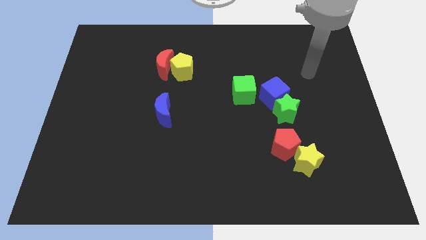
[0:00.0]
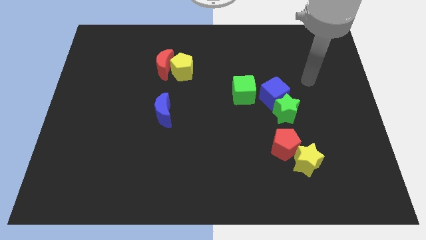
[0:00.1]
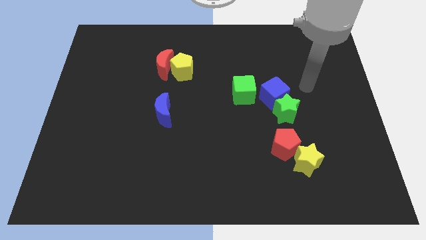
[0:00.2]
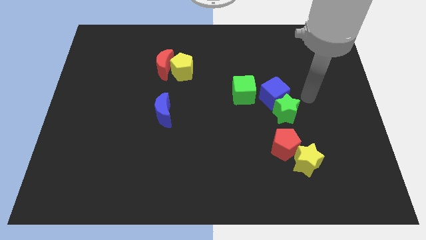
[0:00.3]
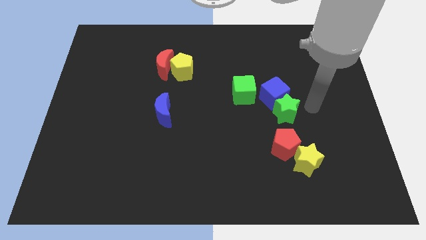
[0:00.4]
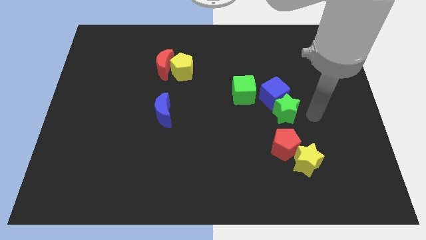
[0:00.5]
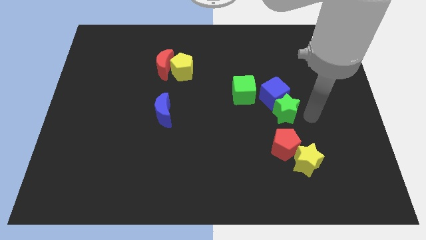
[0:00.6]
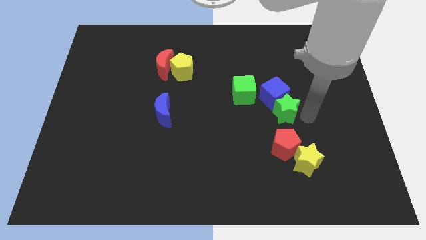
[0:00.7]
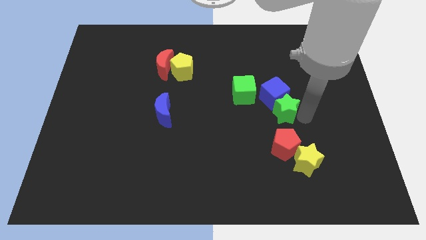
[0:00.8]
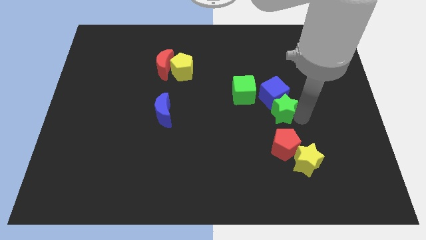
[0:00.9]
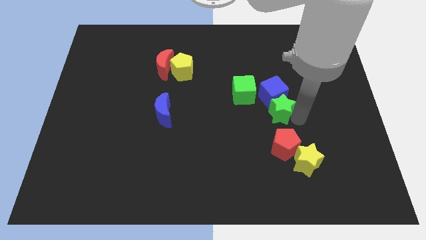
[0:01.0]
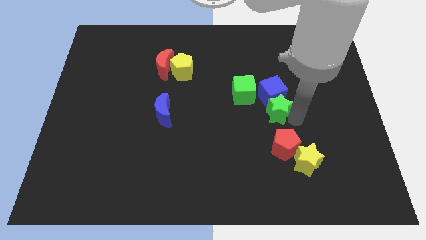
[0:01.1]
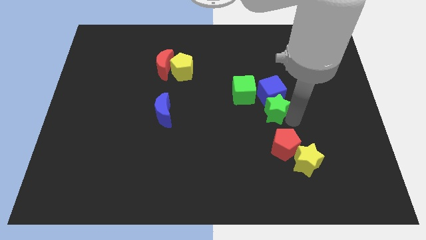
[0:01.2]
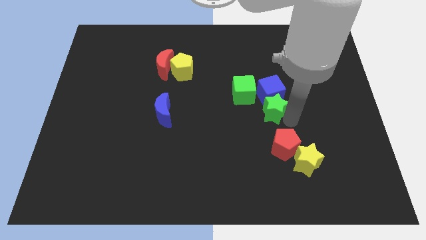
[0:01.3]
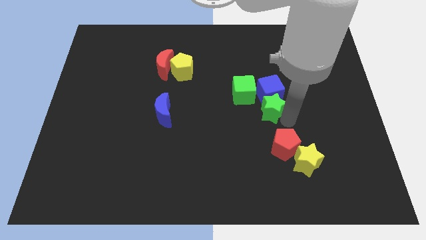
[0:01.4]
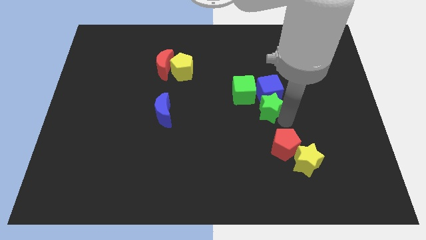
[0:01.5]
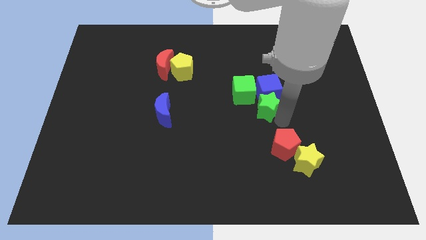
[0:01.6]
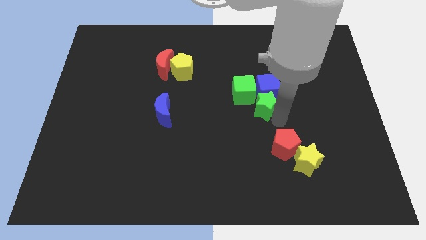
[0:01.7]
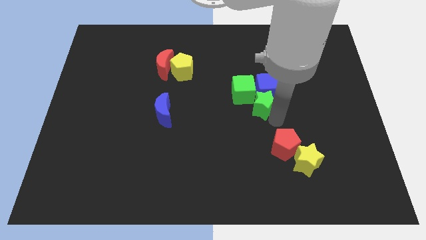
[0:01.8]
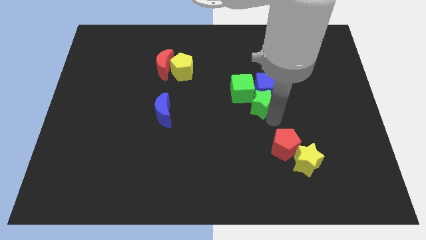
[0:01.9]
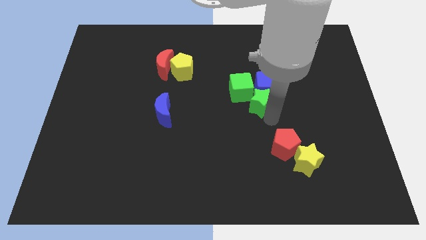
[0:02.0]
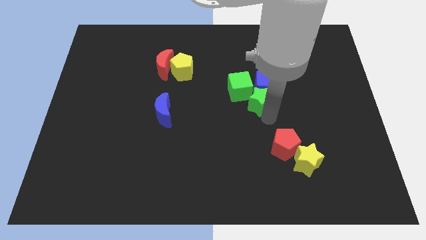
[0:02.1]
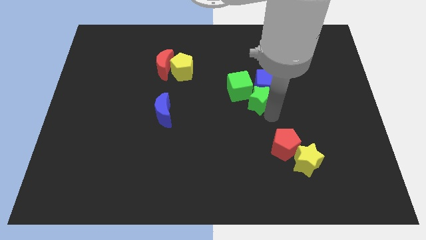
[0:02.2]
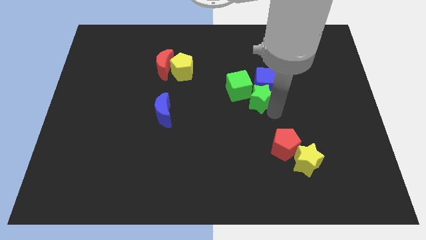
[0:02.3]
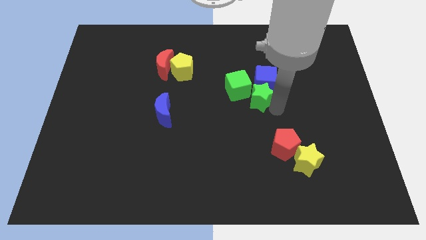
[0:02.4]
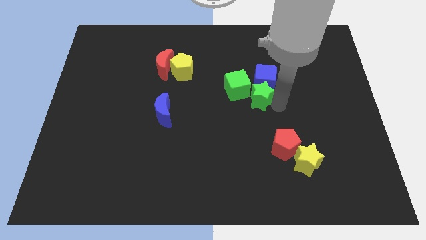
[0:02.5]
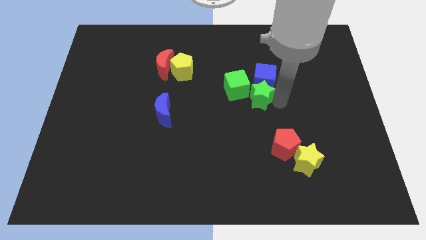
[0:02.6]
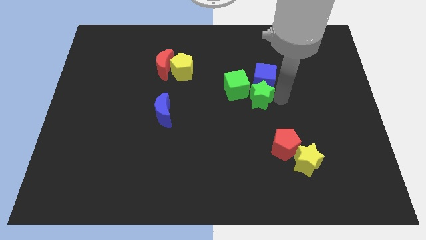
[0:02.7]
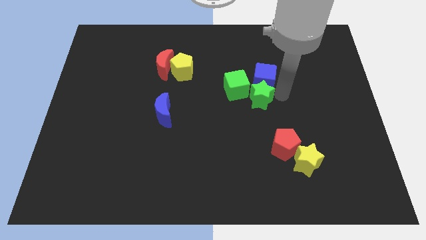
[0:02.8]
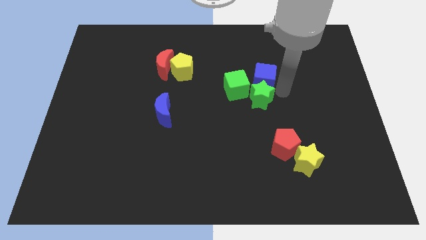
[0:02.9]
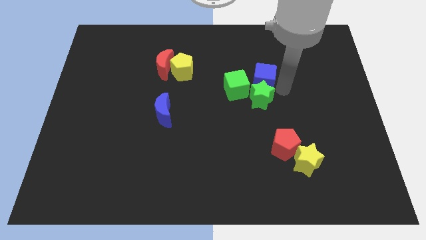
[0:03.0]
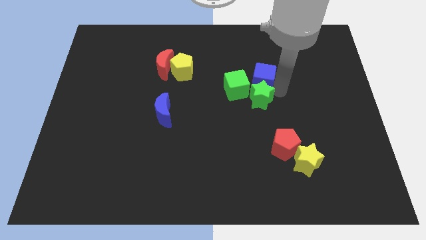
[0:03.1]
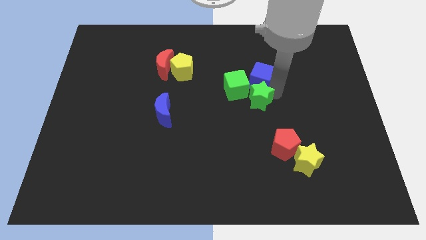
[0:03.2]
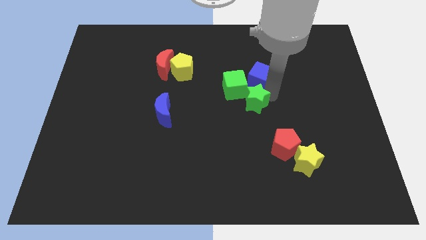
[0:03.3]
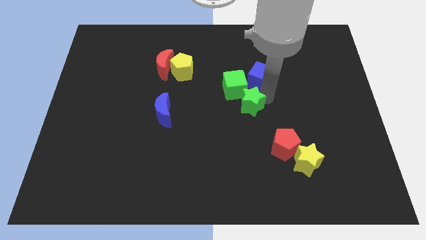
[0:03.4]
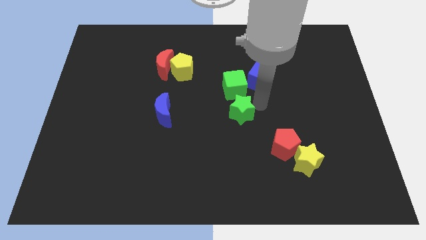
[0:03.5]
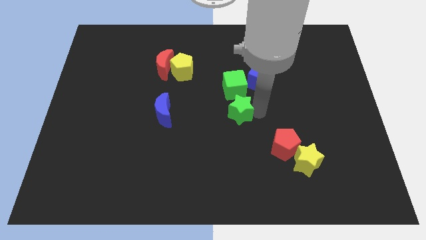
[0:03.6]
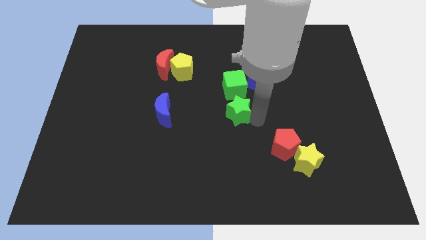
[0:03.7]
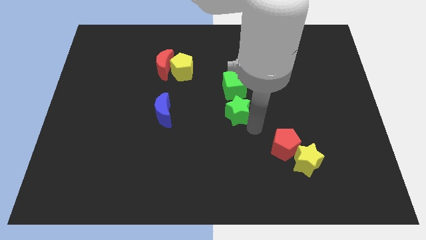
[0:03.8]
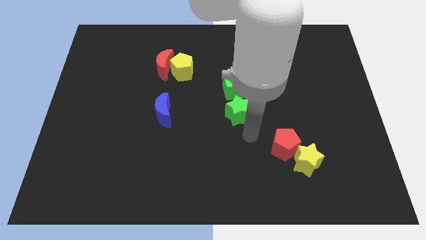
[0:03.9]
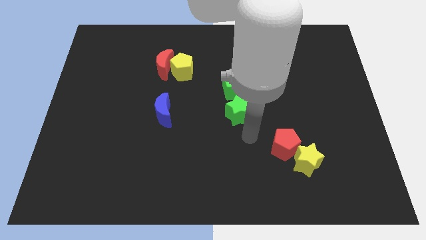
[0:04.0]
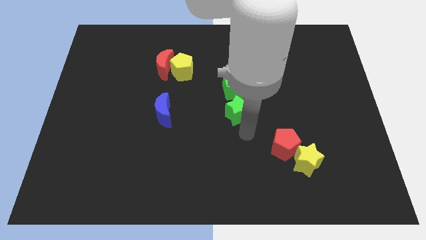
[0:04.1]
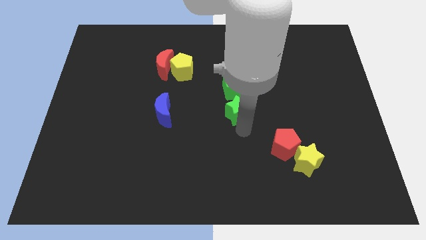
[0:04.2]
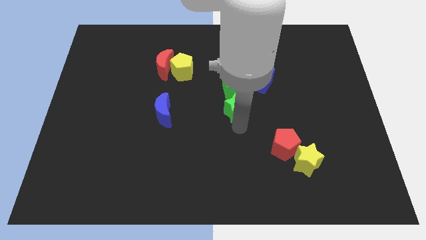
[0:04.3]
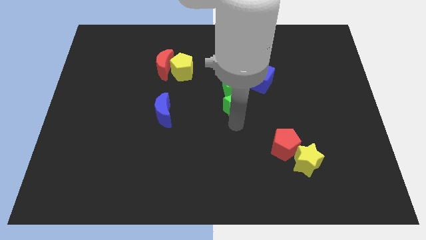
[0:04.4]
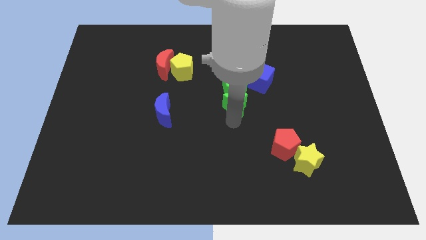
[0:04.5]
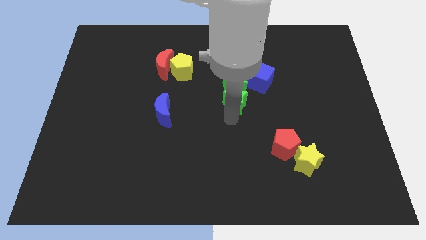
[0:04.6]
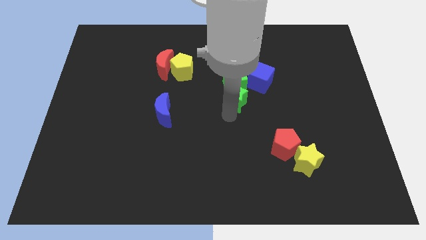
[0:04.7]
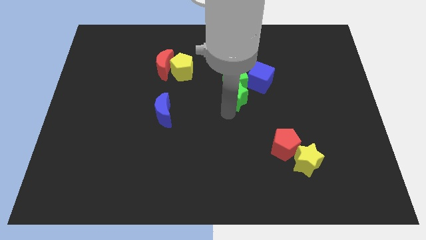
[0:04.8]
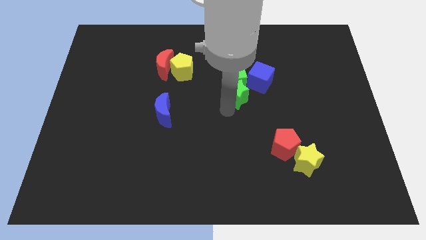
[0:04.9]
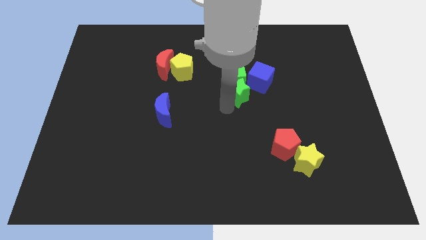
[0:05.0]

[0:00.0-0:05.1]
put the green star just left of the blue cube

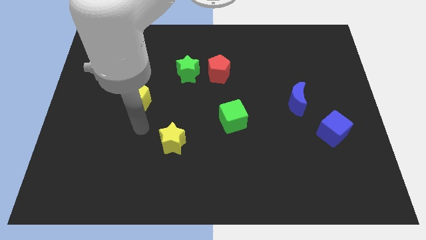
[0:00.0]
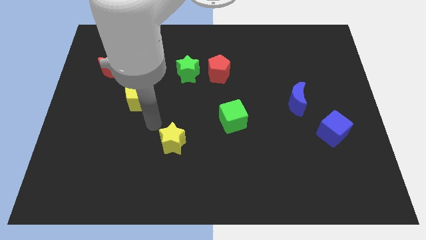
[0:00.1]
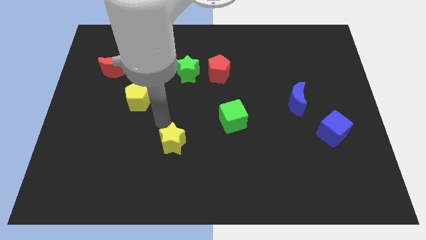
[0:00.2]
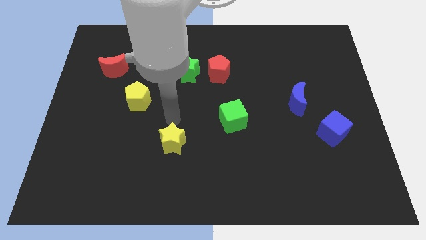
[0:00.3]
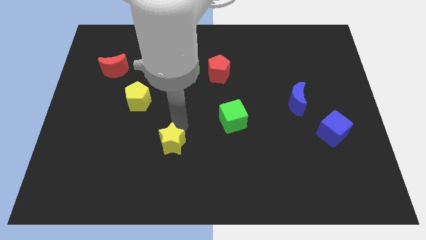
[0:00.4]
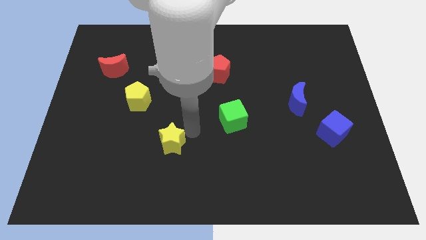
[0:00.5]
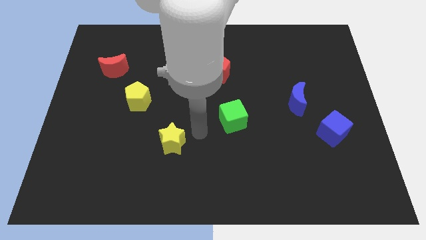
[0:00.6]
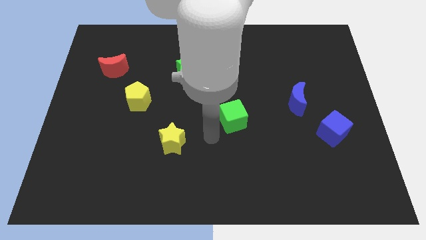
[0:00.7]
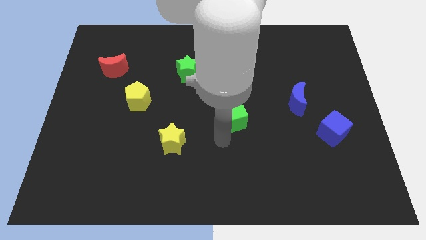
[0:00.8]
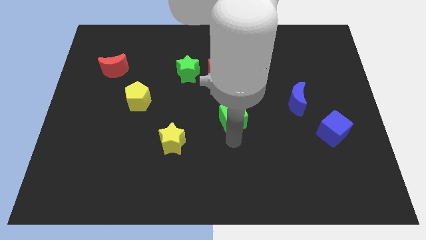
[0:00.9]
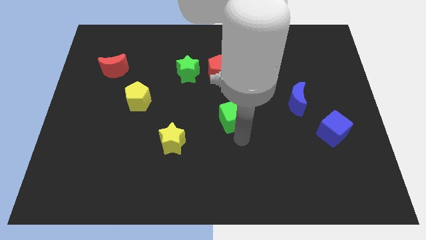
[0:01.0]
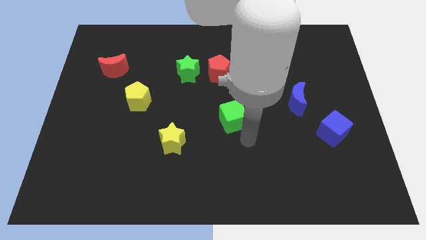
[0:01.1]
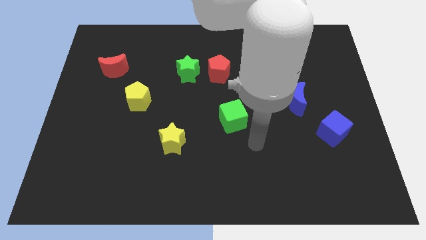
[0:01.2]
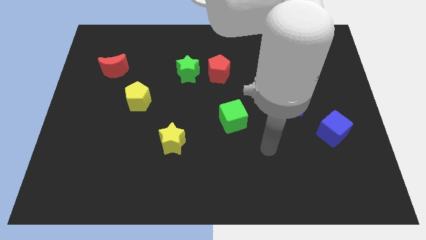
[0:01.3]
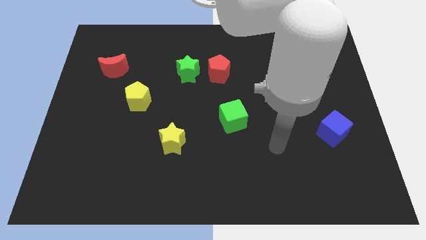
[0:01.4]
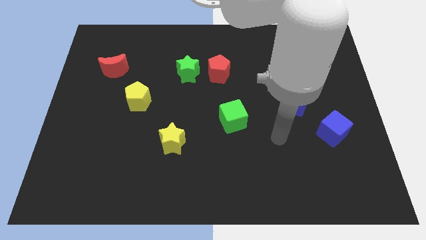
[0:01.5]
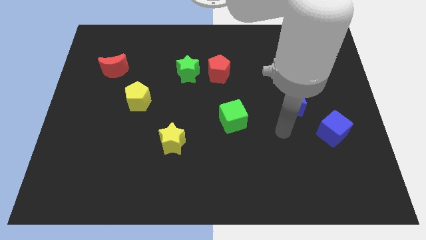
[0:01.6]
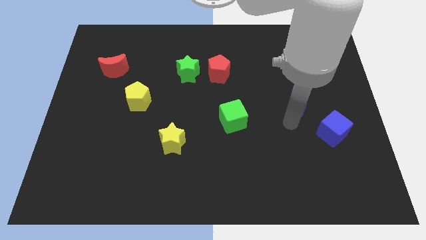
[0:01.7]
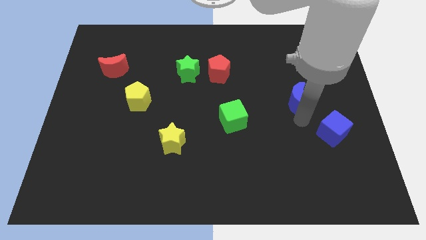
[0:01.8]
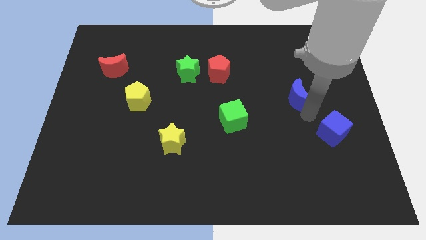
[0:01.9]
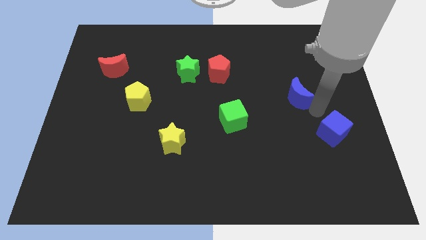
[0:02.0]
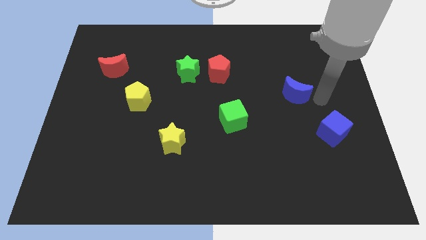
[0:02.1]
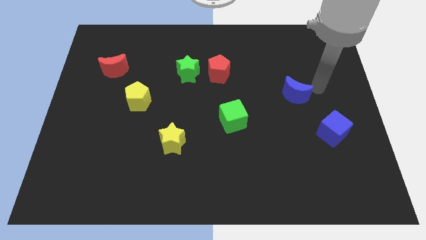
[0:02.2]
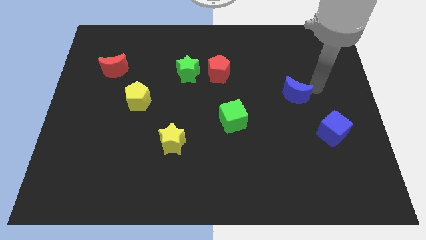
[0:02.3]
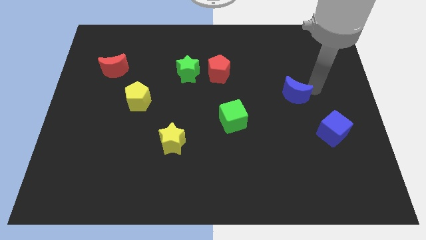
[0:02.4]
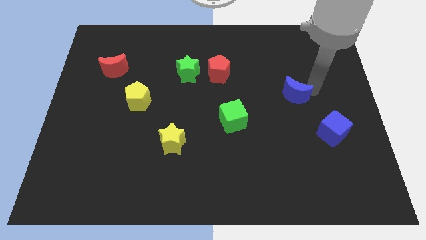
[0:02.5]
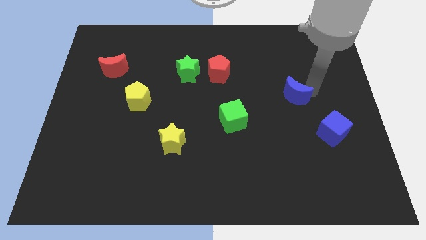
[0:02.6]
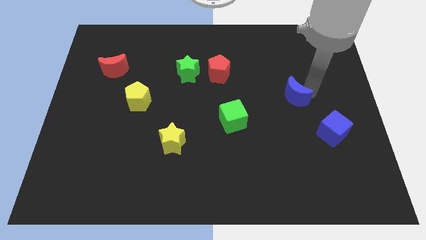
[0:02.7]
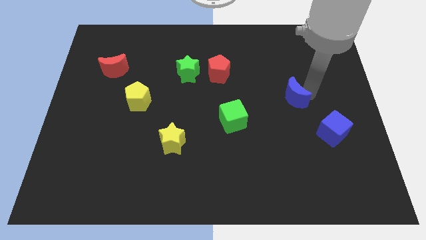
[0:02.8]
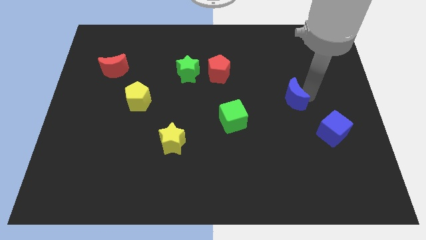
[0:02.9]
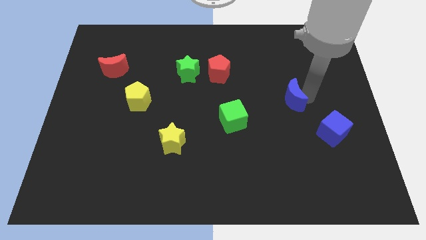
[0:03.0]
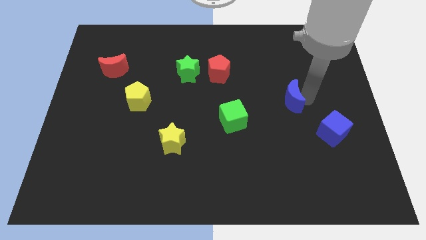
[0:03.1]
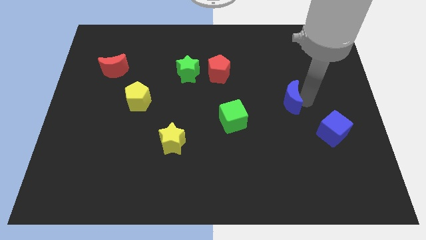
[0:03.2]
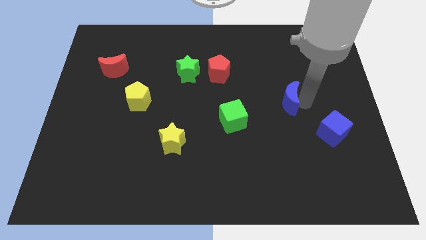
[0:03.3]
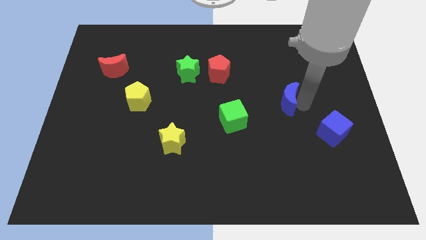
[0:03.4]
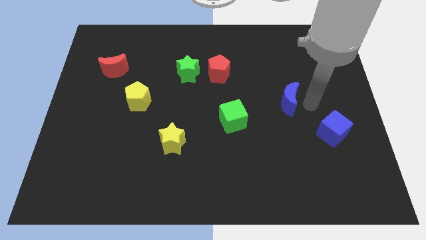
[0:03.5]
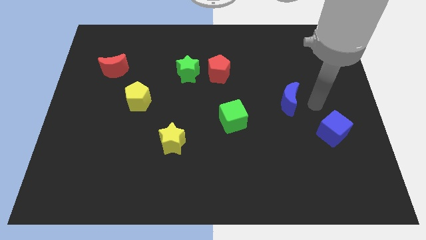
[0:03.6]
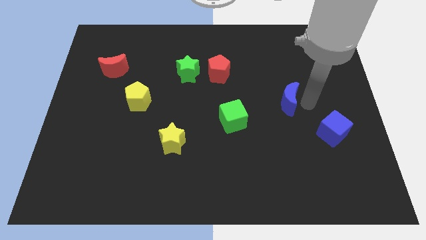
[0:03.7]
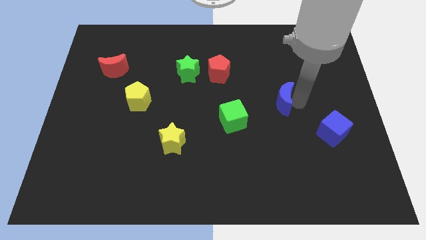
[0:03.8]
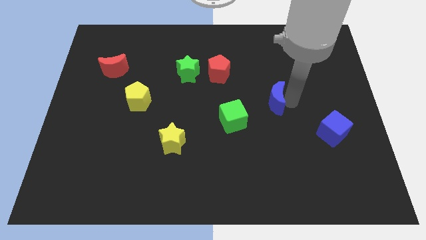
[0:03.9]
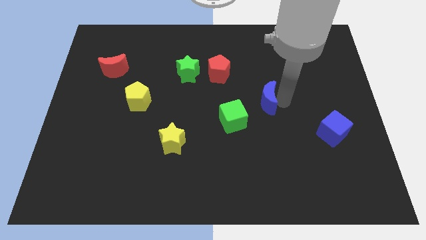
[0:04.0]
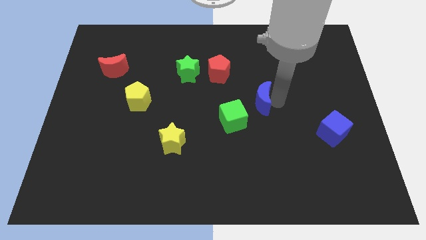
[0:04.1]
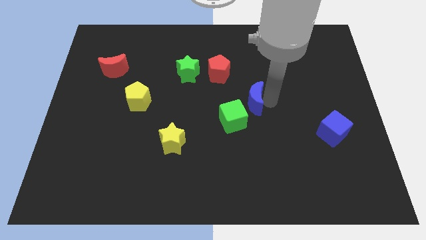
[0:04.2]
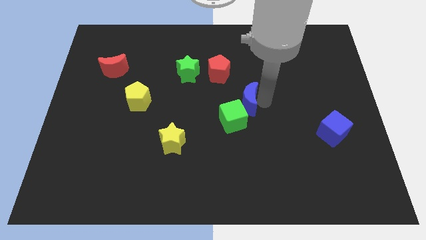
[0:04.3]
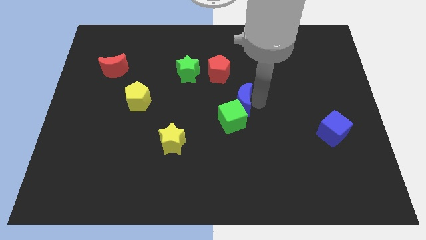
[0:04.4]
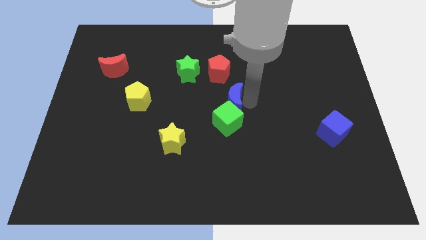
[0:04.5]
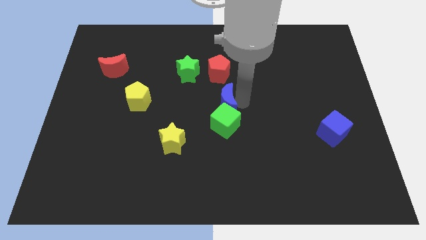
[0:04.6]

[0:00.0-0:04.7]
push the blue moon diagonally up and to the left of the green cube
